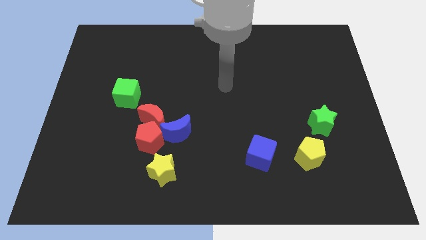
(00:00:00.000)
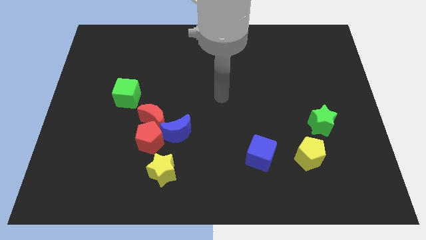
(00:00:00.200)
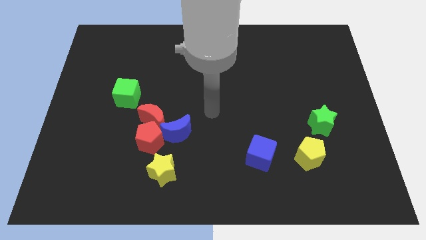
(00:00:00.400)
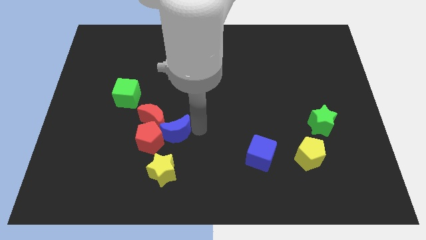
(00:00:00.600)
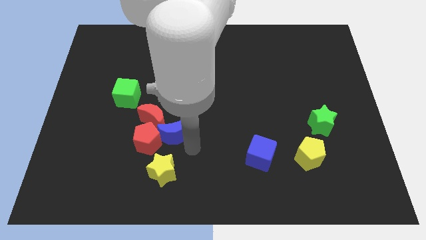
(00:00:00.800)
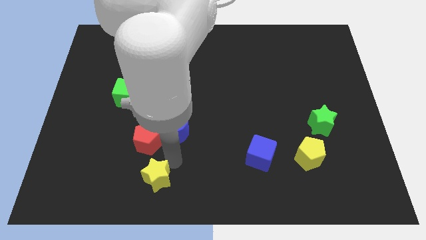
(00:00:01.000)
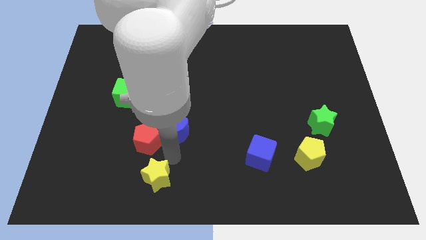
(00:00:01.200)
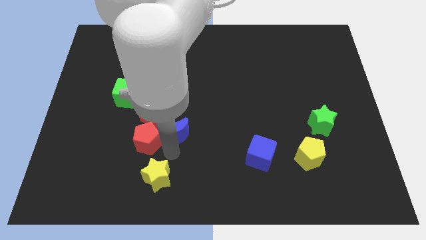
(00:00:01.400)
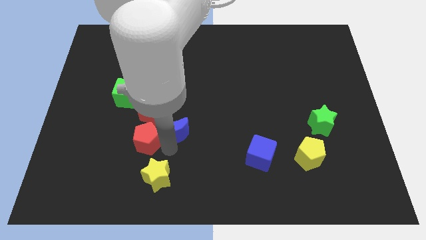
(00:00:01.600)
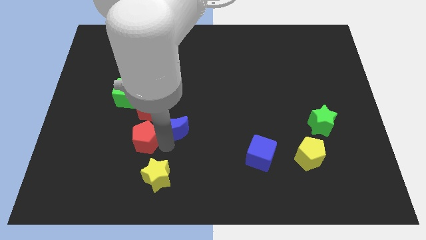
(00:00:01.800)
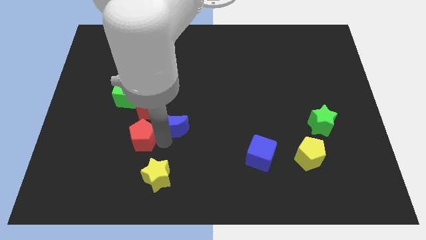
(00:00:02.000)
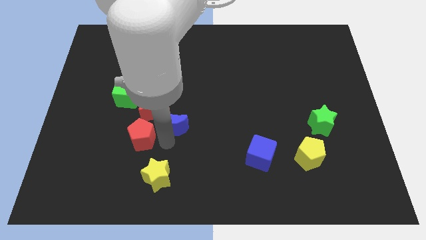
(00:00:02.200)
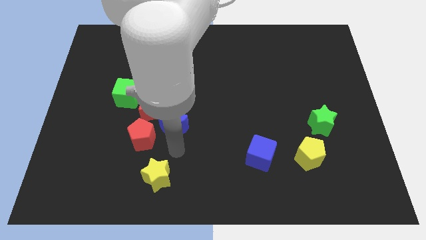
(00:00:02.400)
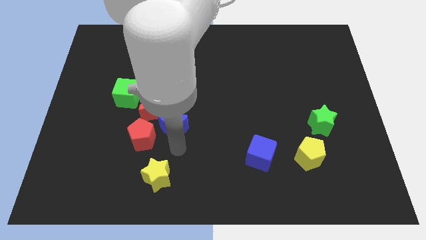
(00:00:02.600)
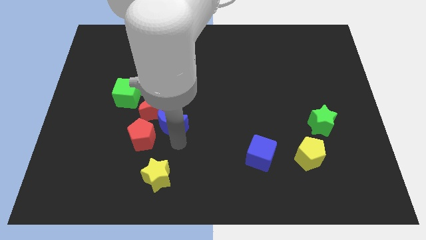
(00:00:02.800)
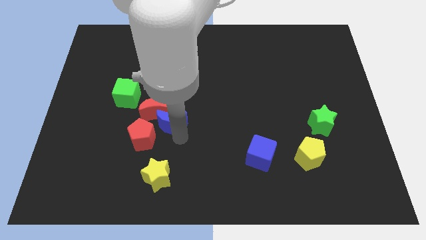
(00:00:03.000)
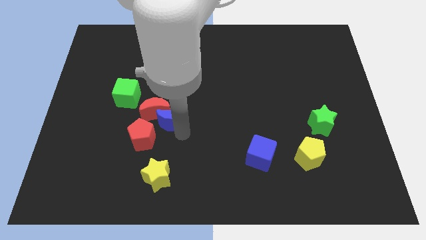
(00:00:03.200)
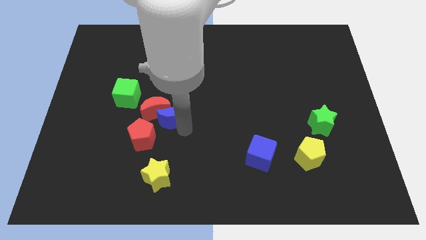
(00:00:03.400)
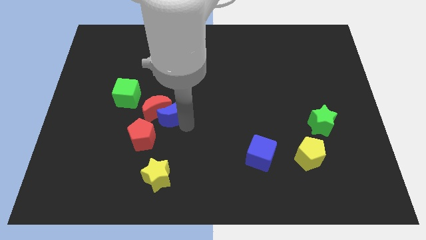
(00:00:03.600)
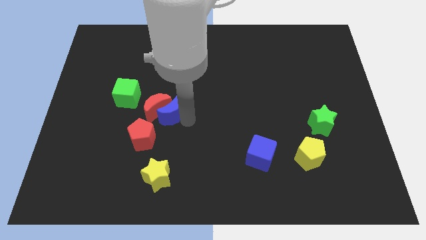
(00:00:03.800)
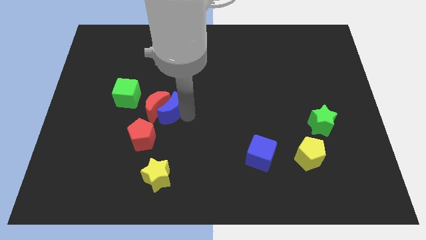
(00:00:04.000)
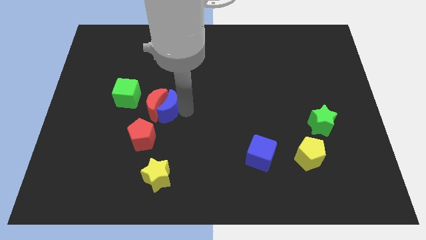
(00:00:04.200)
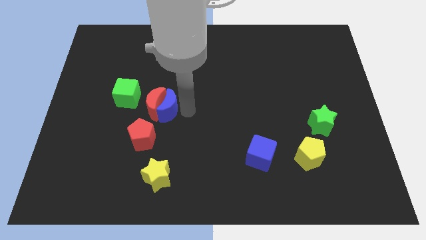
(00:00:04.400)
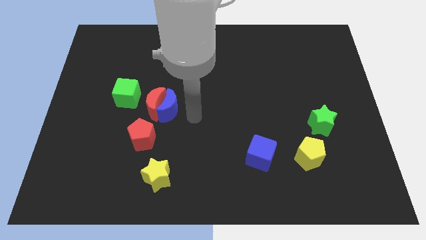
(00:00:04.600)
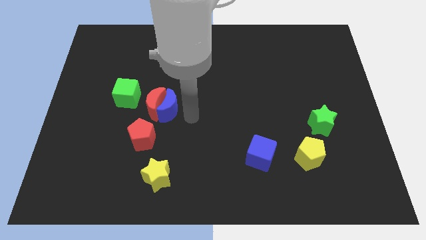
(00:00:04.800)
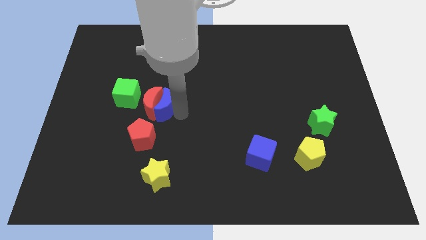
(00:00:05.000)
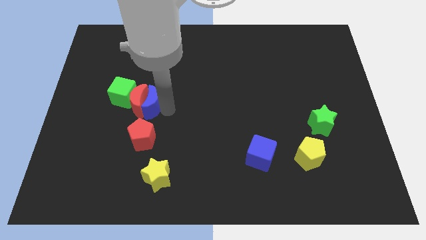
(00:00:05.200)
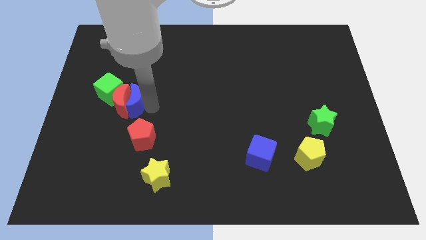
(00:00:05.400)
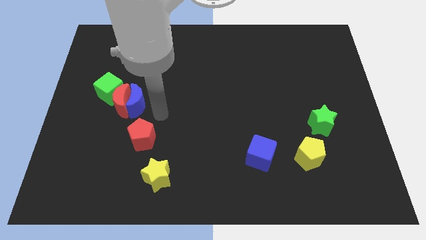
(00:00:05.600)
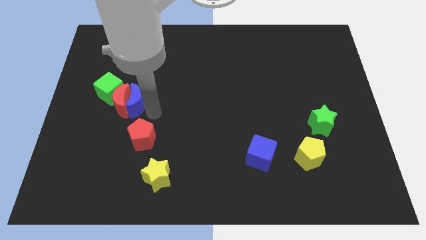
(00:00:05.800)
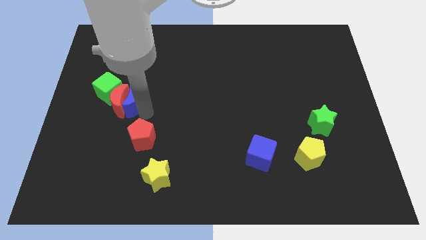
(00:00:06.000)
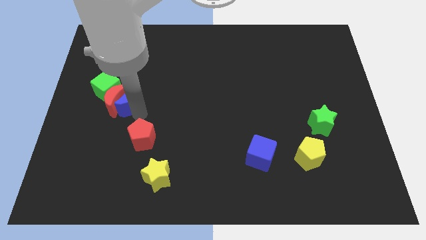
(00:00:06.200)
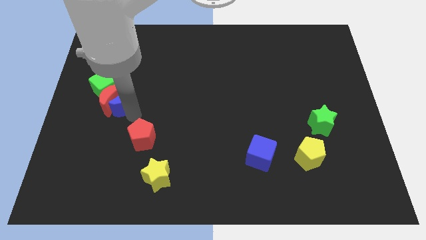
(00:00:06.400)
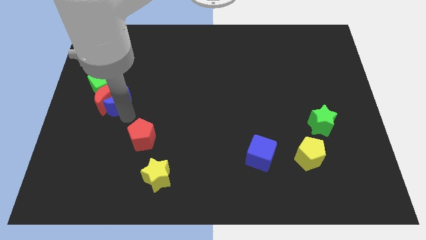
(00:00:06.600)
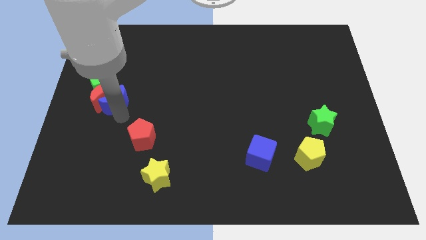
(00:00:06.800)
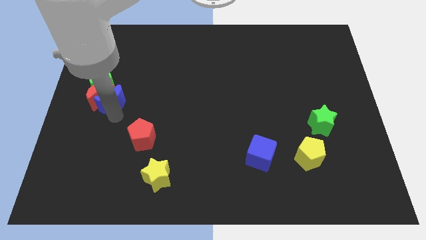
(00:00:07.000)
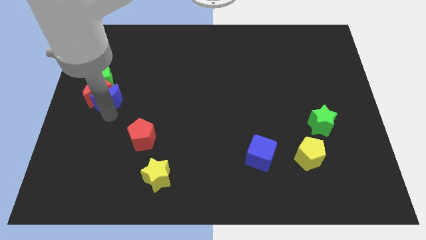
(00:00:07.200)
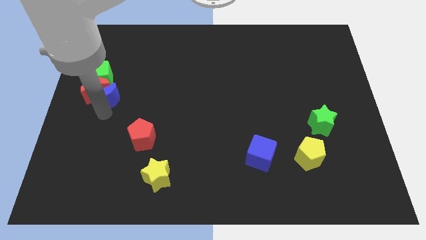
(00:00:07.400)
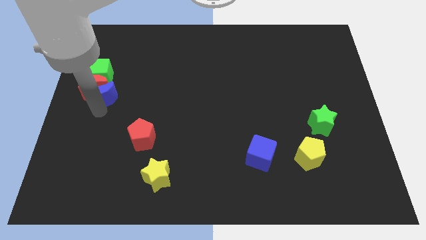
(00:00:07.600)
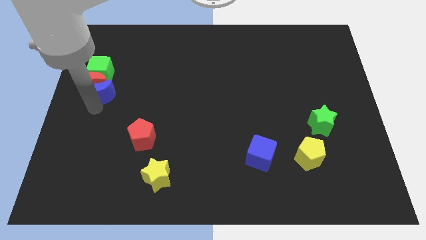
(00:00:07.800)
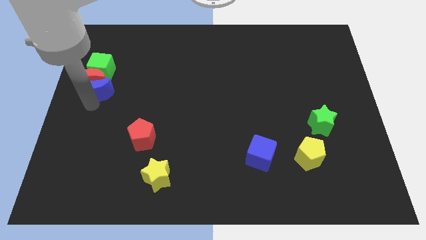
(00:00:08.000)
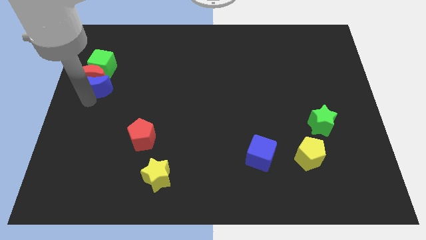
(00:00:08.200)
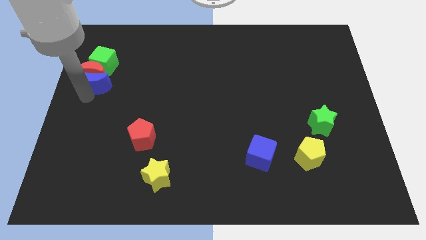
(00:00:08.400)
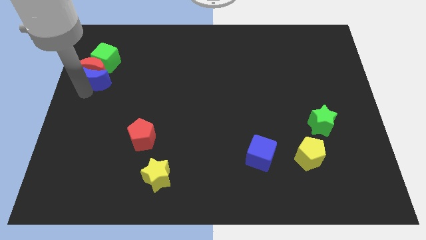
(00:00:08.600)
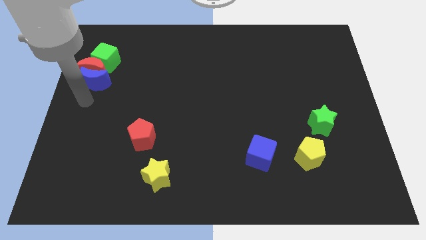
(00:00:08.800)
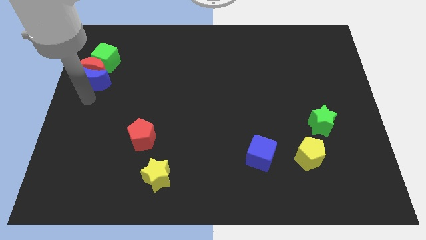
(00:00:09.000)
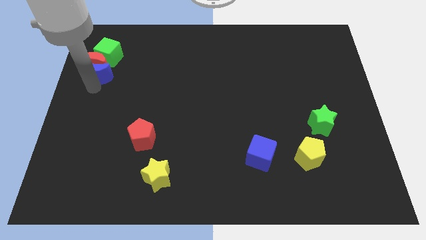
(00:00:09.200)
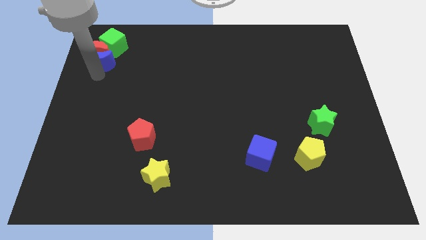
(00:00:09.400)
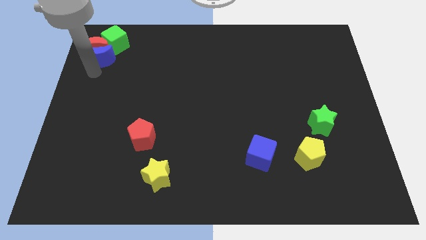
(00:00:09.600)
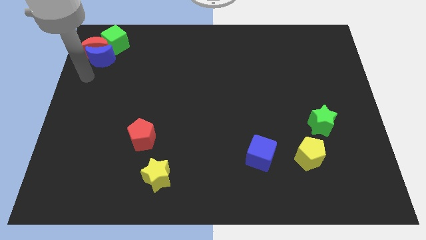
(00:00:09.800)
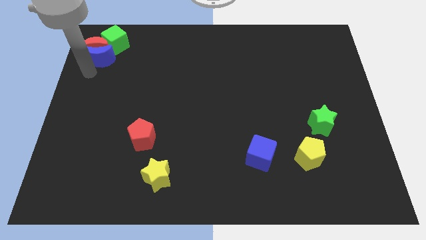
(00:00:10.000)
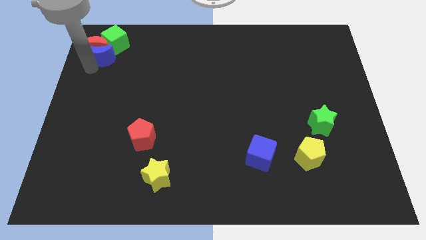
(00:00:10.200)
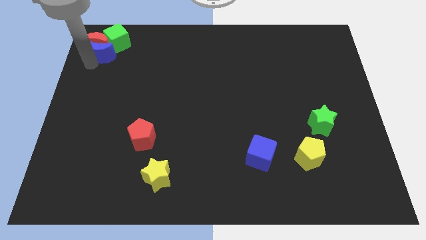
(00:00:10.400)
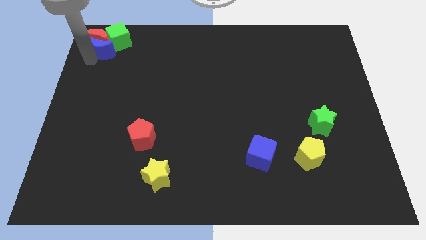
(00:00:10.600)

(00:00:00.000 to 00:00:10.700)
put the blue moon towards the green cube

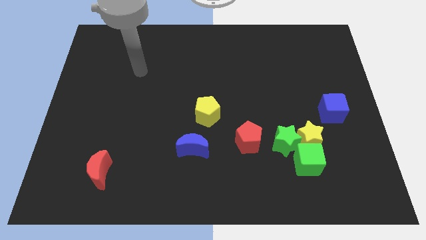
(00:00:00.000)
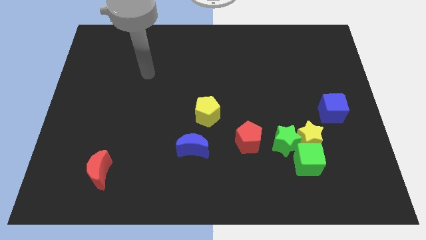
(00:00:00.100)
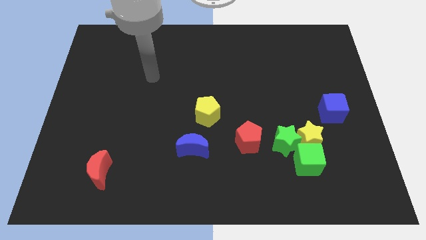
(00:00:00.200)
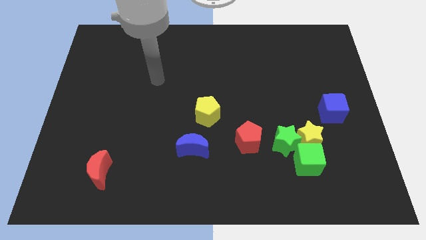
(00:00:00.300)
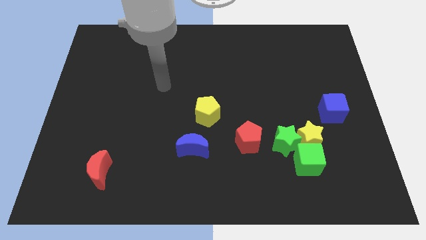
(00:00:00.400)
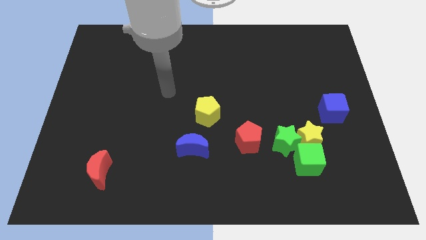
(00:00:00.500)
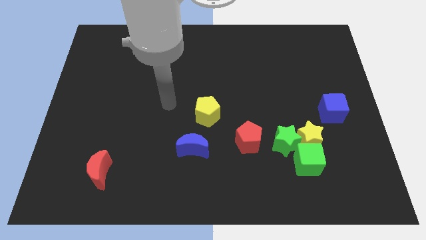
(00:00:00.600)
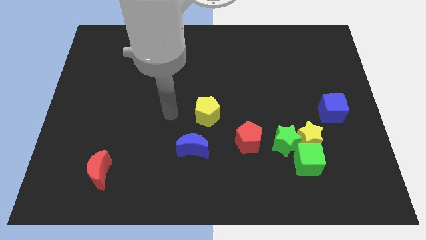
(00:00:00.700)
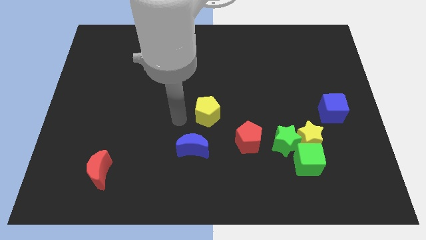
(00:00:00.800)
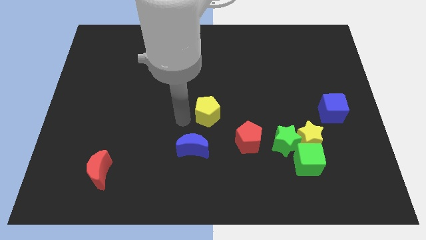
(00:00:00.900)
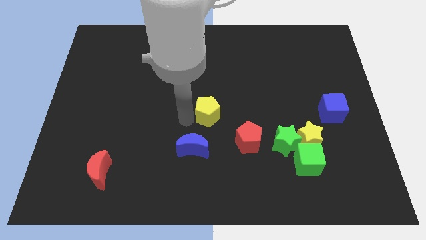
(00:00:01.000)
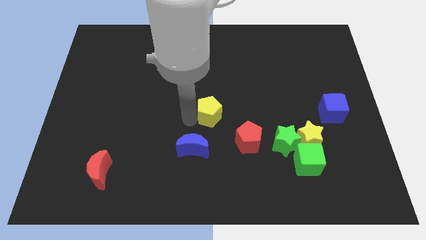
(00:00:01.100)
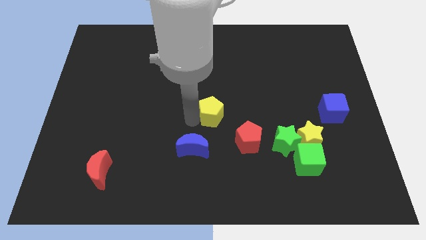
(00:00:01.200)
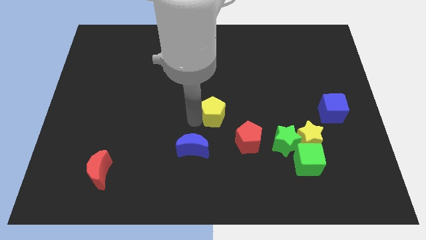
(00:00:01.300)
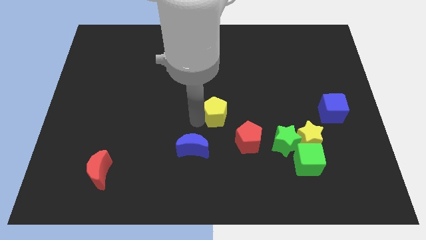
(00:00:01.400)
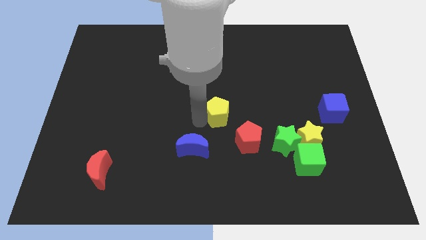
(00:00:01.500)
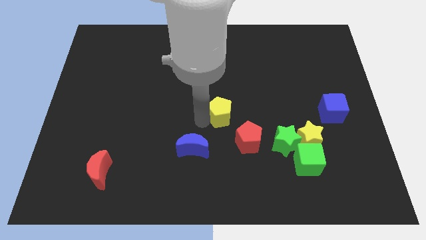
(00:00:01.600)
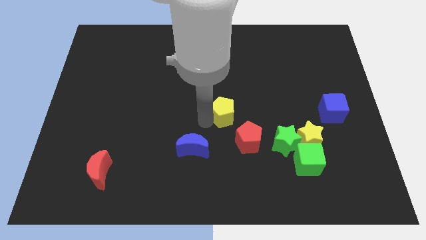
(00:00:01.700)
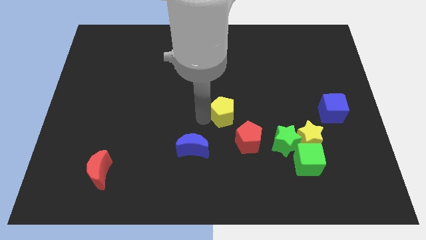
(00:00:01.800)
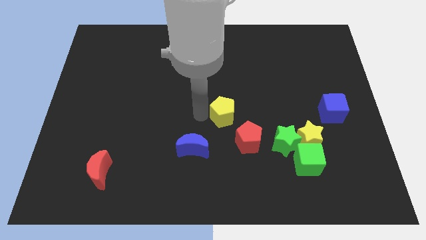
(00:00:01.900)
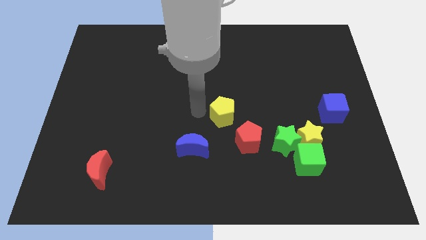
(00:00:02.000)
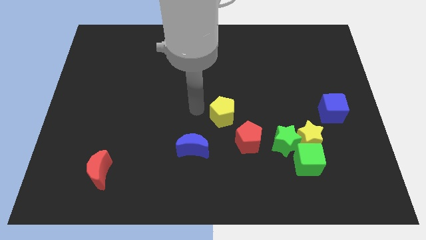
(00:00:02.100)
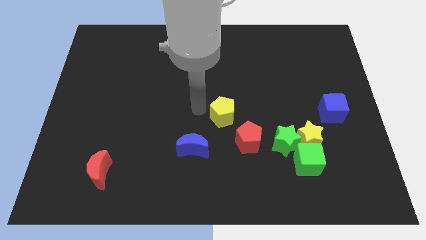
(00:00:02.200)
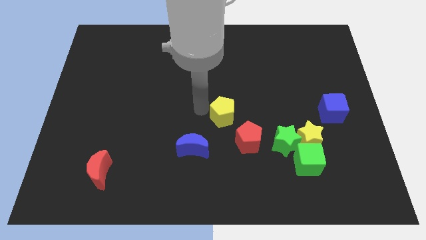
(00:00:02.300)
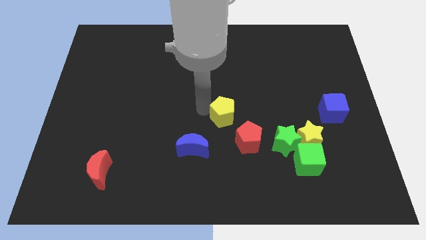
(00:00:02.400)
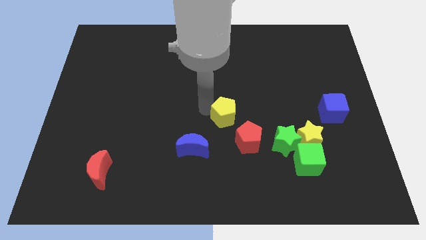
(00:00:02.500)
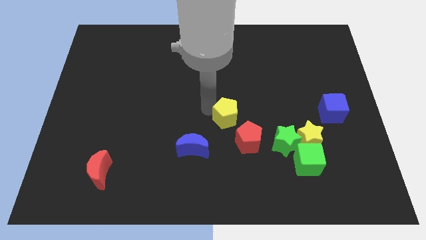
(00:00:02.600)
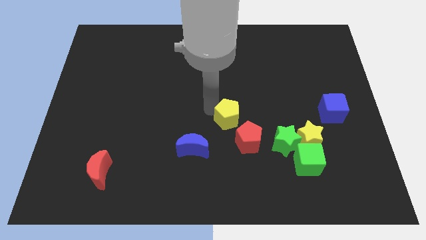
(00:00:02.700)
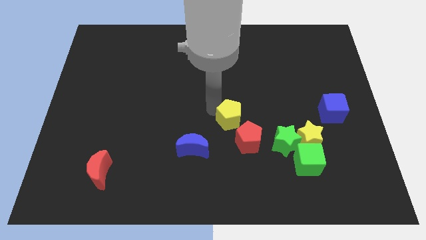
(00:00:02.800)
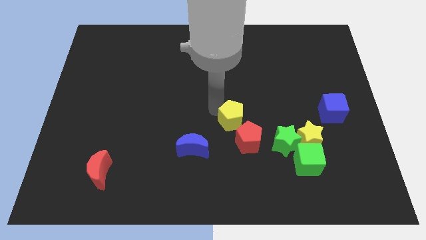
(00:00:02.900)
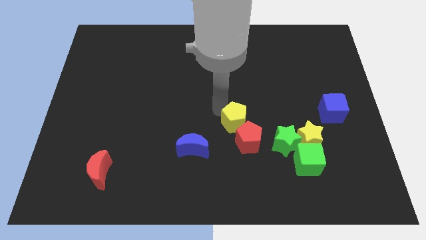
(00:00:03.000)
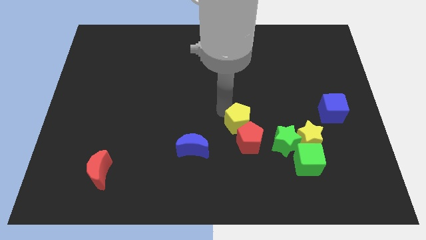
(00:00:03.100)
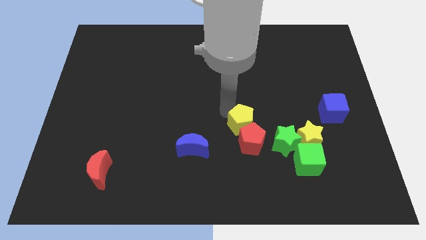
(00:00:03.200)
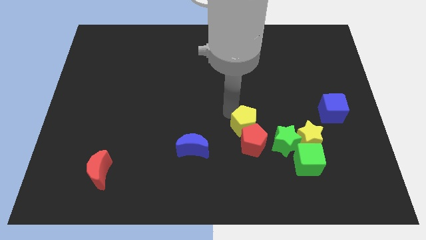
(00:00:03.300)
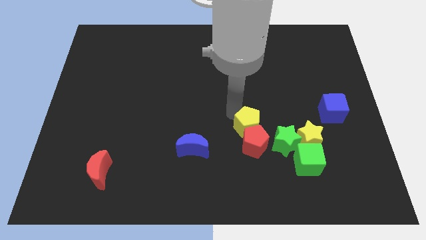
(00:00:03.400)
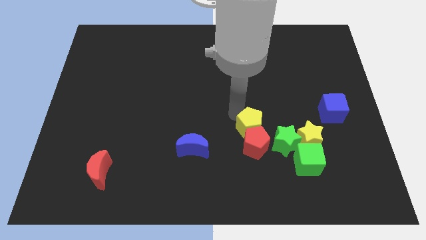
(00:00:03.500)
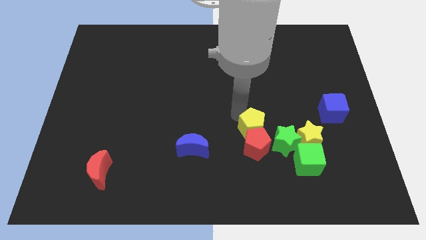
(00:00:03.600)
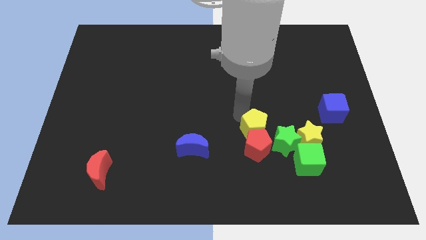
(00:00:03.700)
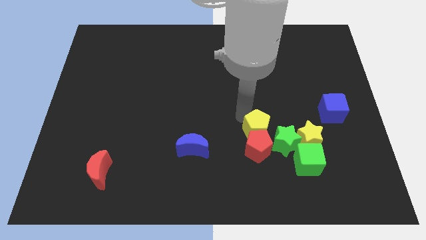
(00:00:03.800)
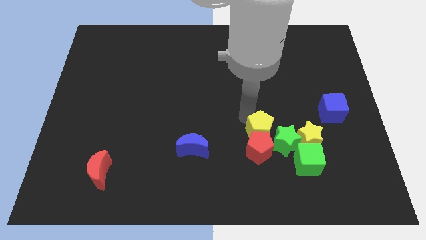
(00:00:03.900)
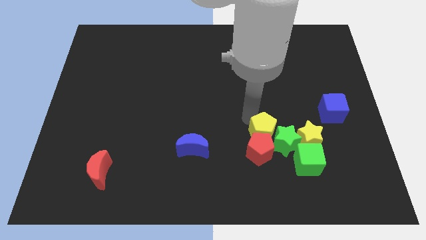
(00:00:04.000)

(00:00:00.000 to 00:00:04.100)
push the yellow pentagon next to the green star
